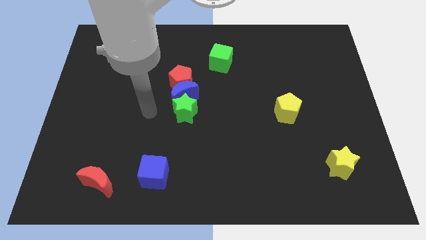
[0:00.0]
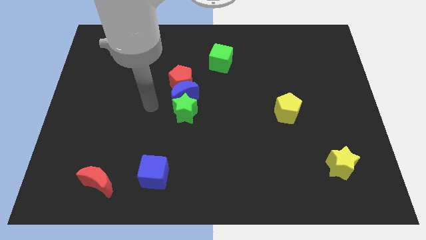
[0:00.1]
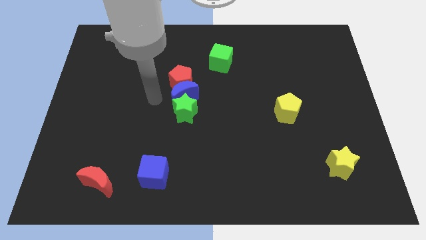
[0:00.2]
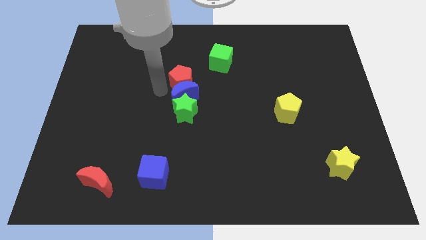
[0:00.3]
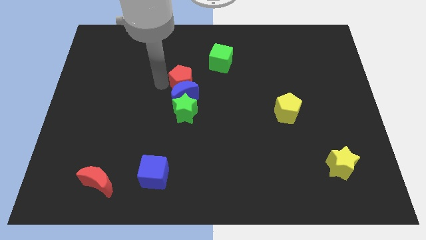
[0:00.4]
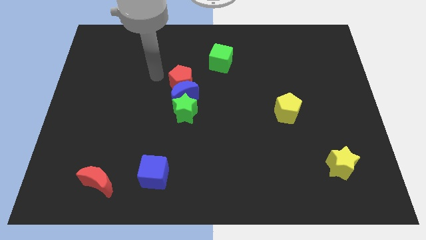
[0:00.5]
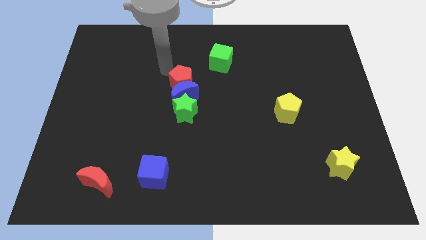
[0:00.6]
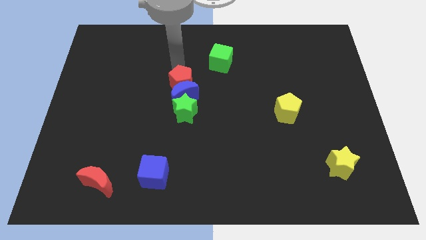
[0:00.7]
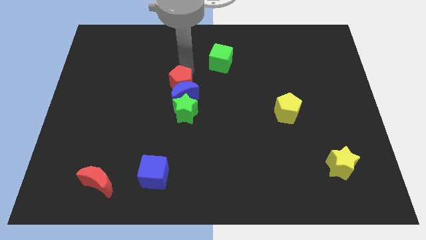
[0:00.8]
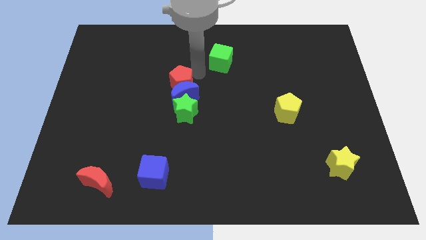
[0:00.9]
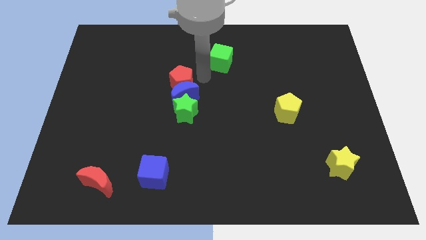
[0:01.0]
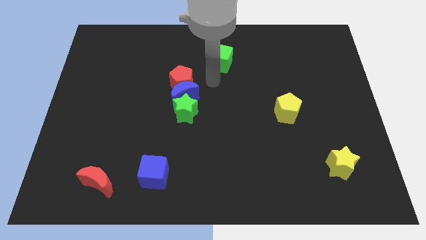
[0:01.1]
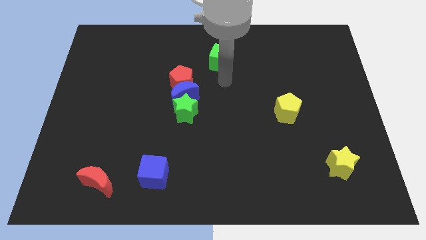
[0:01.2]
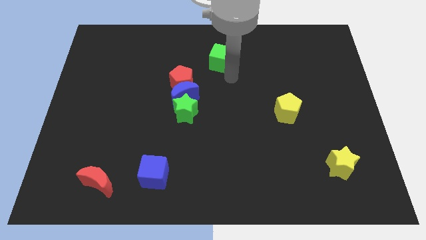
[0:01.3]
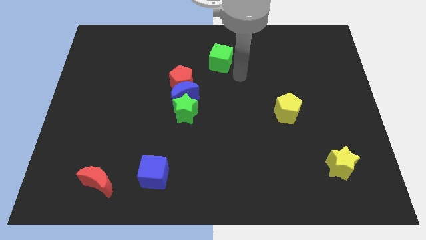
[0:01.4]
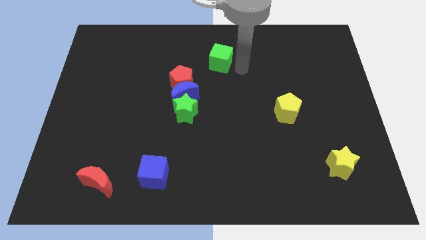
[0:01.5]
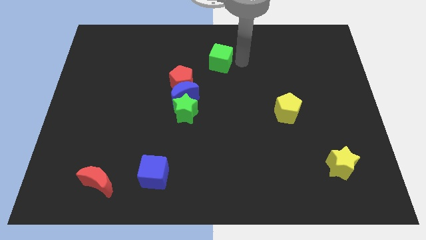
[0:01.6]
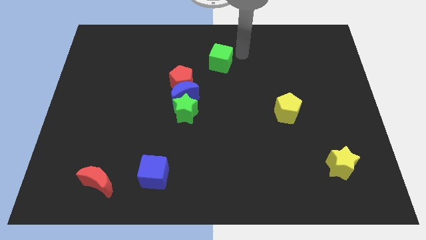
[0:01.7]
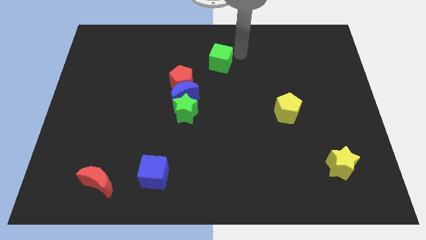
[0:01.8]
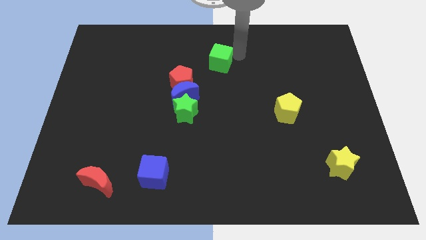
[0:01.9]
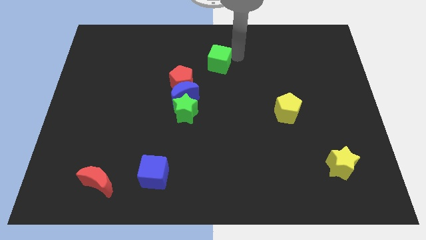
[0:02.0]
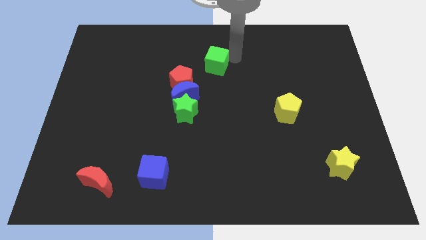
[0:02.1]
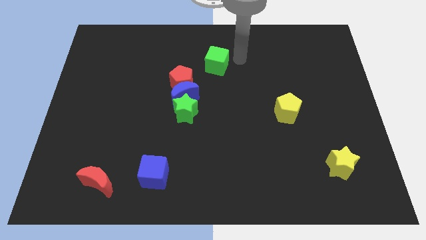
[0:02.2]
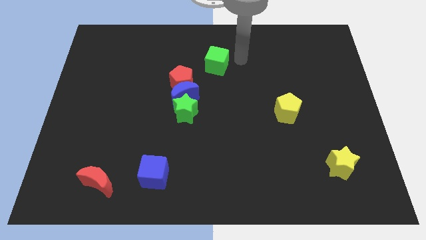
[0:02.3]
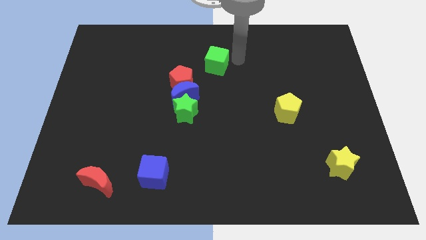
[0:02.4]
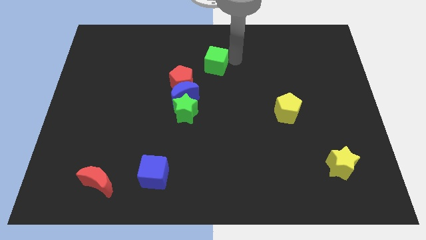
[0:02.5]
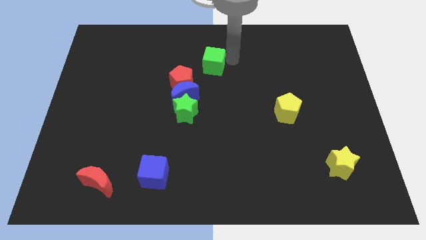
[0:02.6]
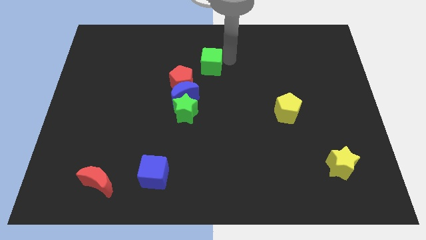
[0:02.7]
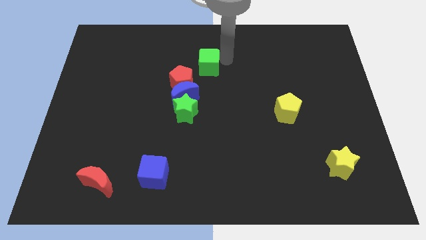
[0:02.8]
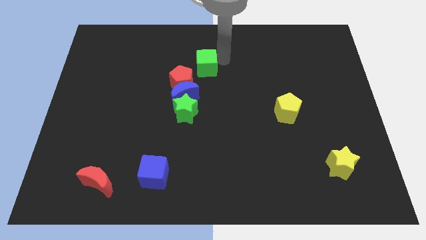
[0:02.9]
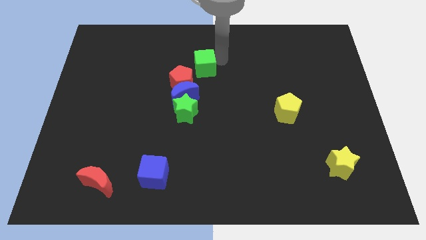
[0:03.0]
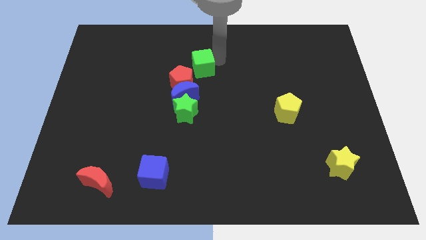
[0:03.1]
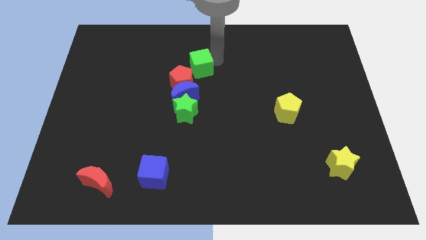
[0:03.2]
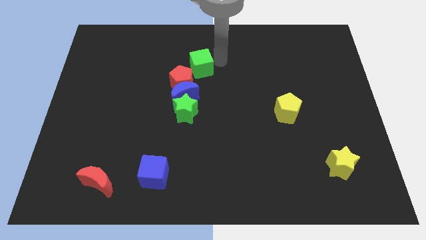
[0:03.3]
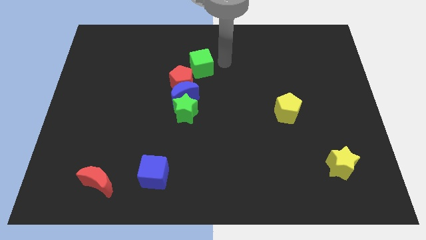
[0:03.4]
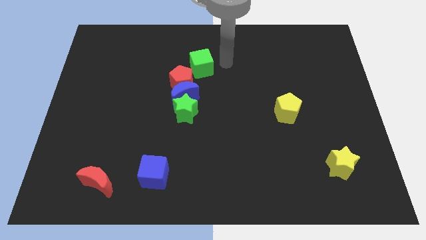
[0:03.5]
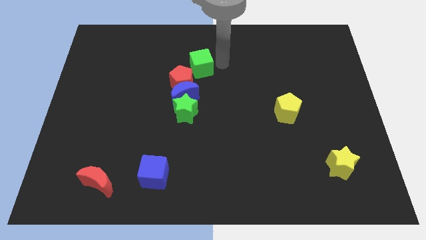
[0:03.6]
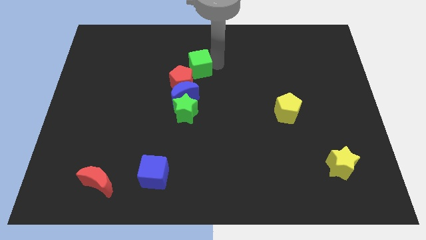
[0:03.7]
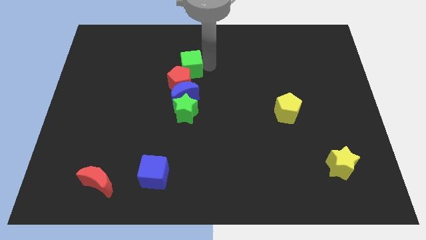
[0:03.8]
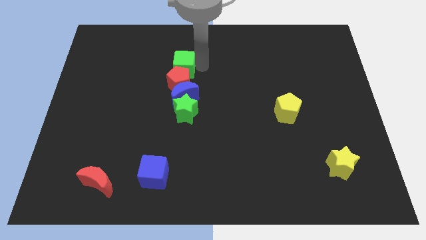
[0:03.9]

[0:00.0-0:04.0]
slide the green cube diagonally down and left a little

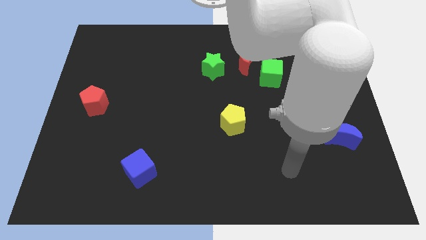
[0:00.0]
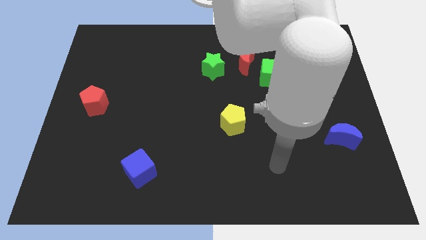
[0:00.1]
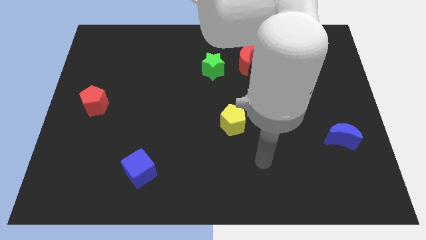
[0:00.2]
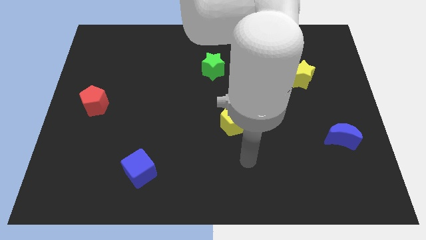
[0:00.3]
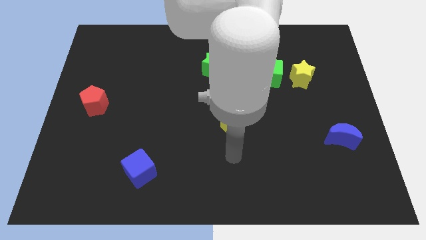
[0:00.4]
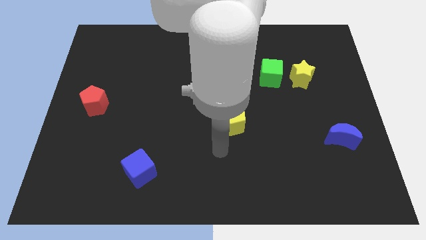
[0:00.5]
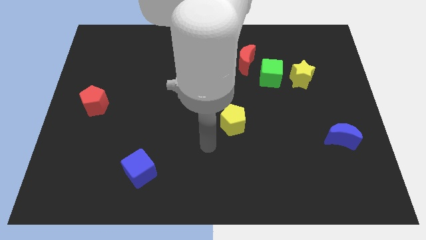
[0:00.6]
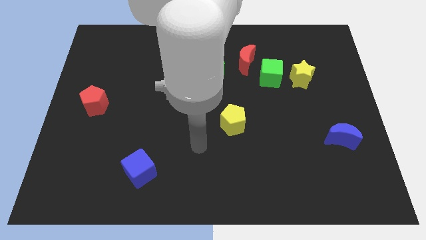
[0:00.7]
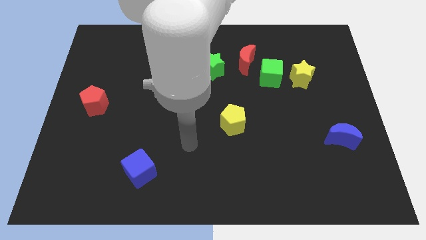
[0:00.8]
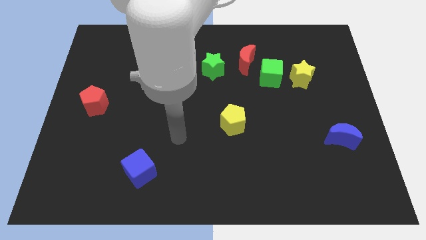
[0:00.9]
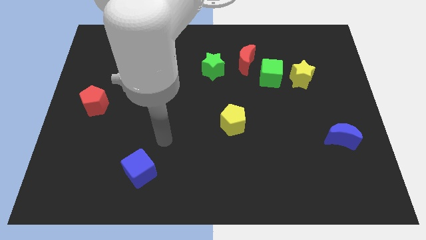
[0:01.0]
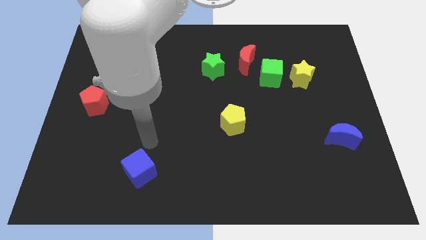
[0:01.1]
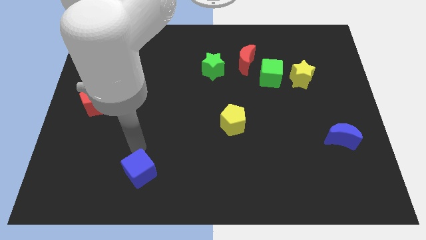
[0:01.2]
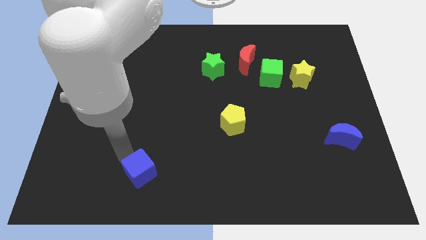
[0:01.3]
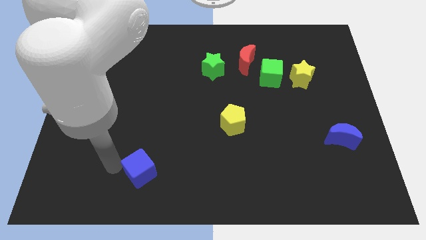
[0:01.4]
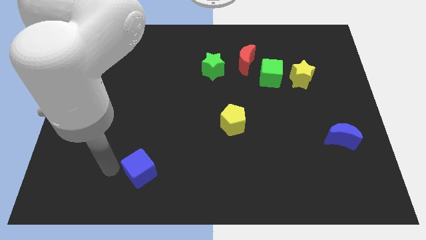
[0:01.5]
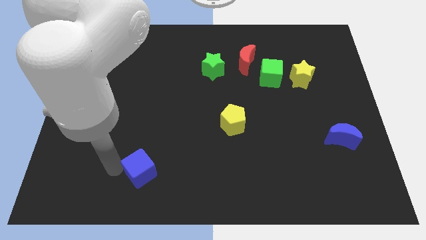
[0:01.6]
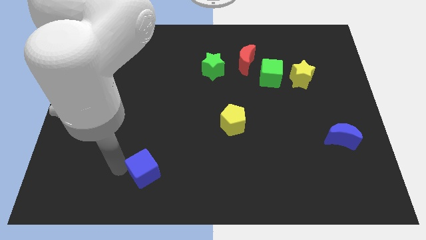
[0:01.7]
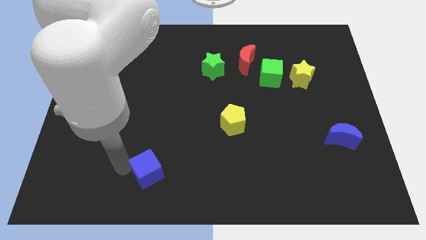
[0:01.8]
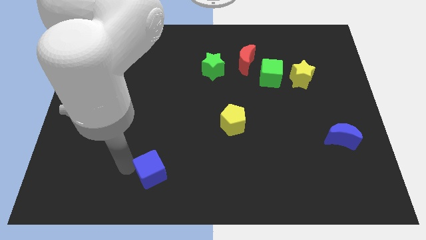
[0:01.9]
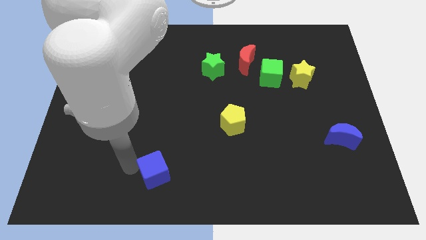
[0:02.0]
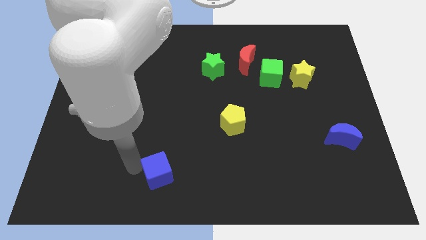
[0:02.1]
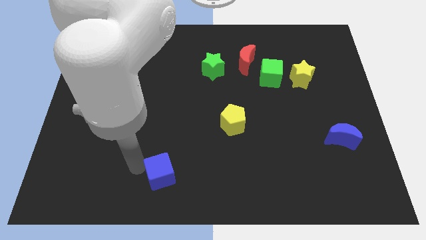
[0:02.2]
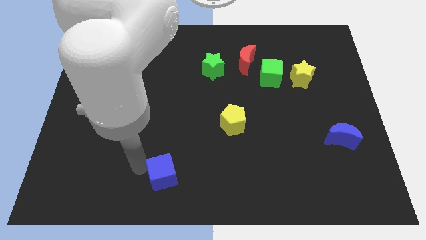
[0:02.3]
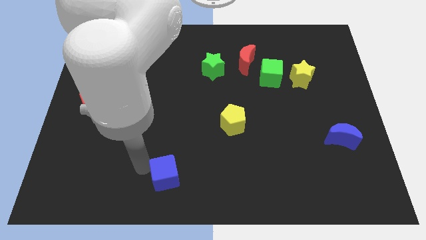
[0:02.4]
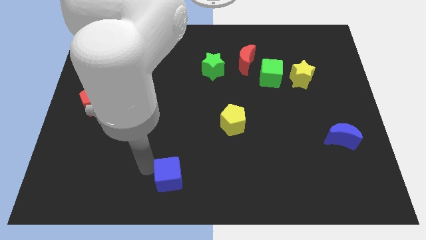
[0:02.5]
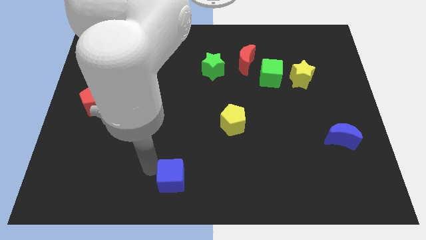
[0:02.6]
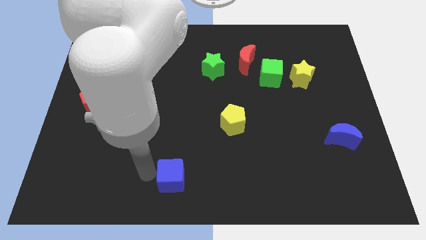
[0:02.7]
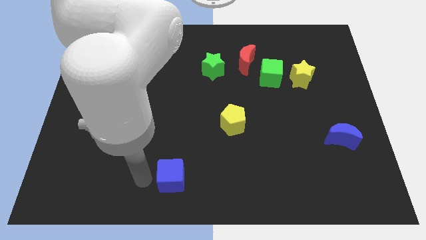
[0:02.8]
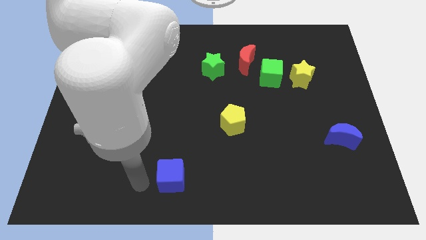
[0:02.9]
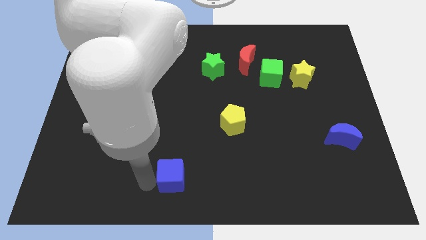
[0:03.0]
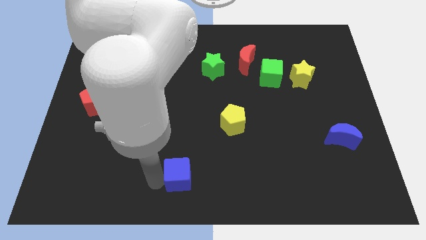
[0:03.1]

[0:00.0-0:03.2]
slide the blue cube a little bit right

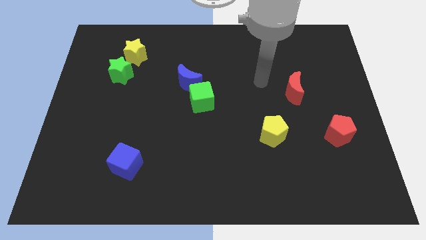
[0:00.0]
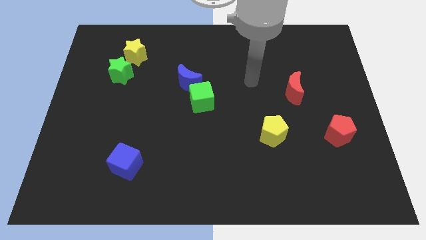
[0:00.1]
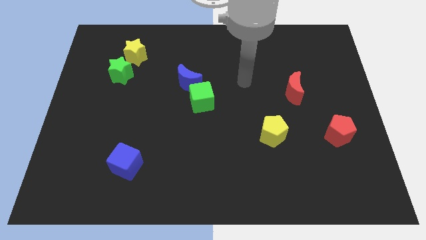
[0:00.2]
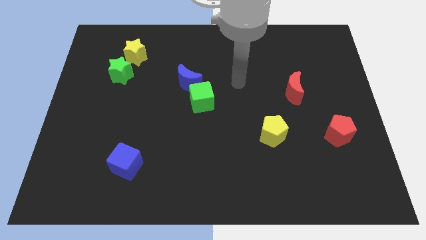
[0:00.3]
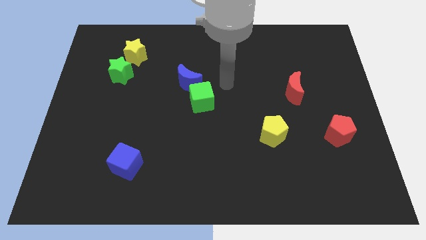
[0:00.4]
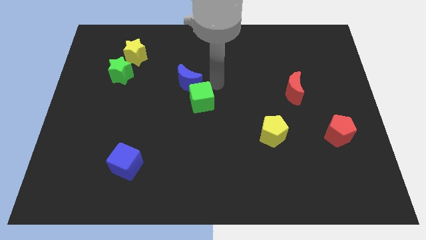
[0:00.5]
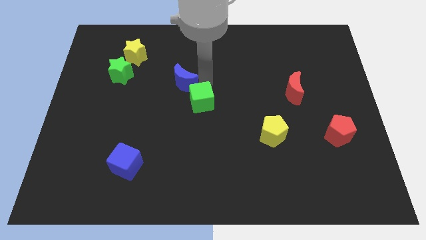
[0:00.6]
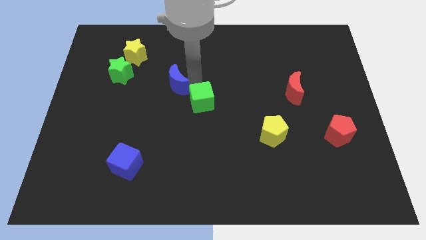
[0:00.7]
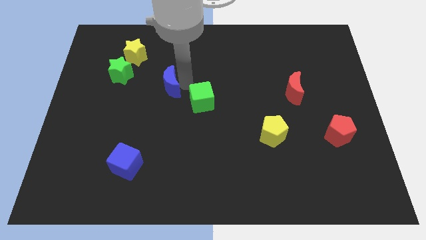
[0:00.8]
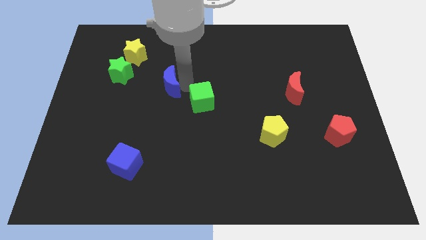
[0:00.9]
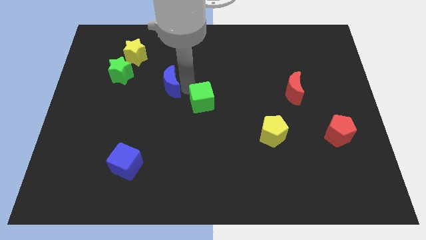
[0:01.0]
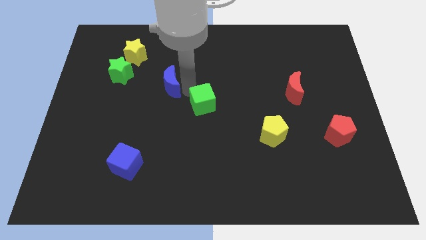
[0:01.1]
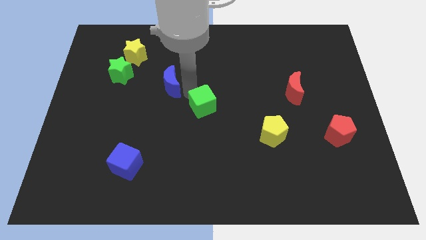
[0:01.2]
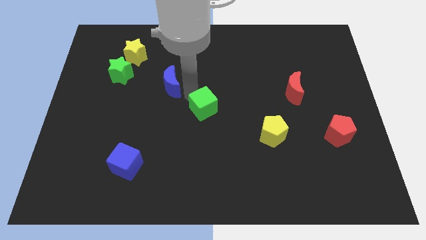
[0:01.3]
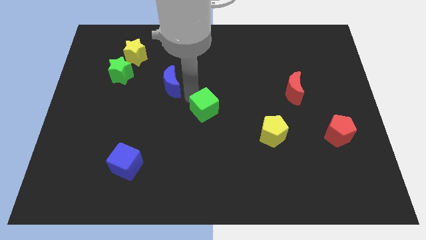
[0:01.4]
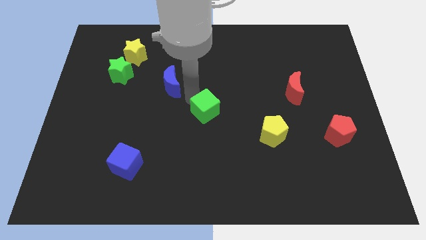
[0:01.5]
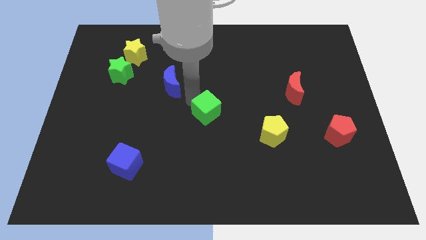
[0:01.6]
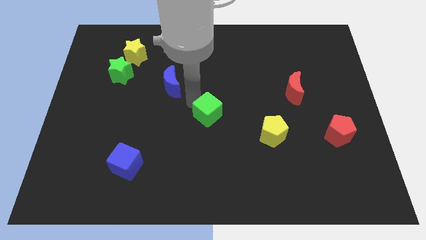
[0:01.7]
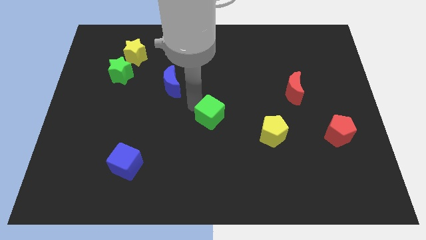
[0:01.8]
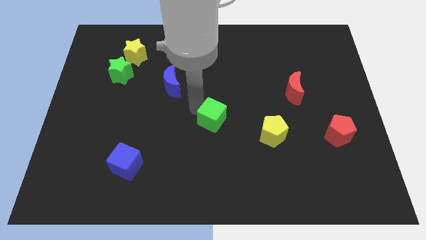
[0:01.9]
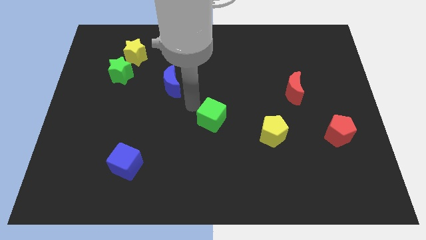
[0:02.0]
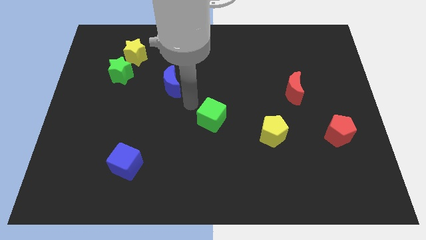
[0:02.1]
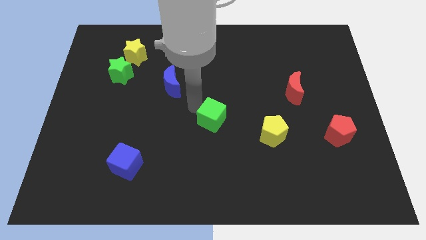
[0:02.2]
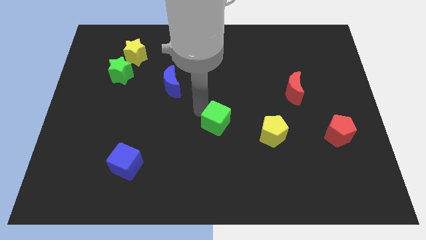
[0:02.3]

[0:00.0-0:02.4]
slightly push the green cube downwards and then to the right
